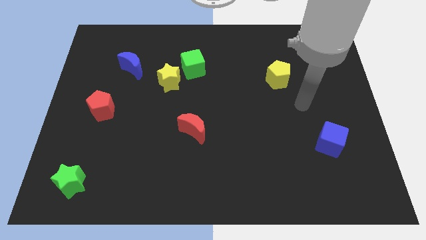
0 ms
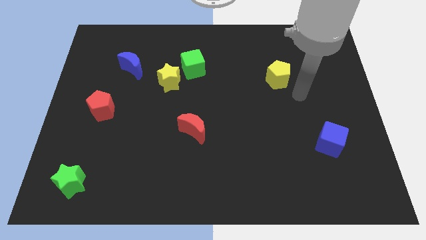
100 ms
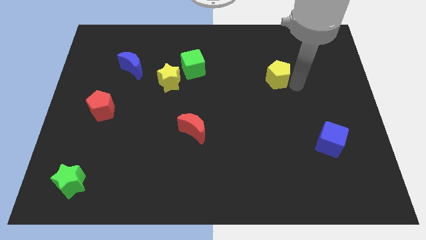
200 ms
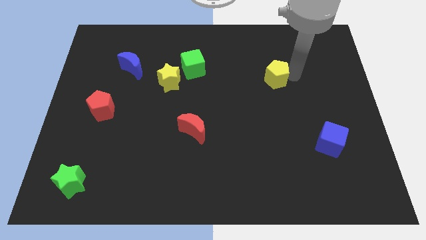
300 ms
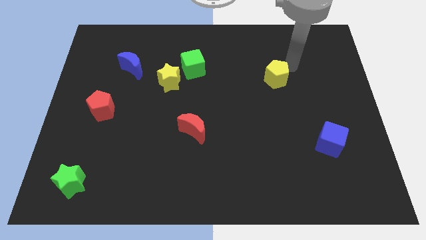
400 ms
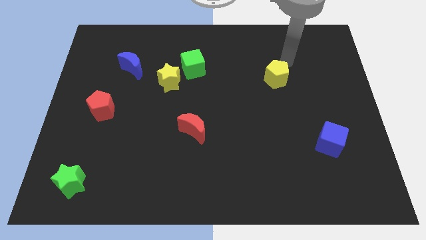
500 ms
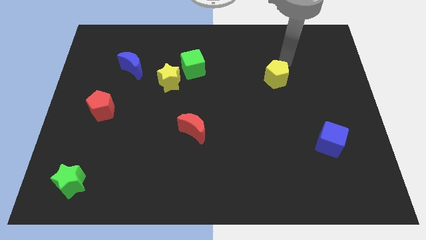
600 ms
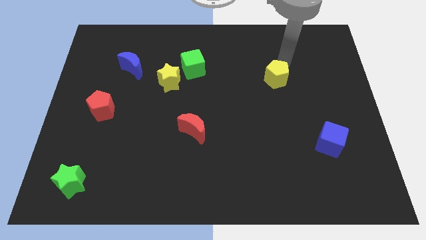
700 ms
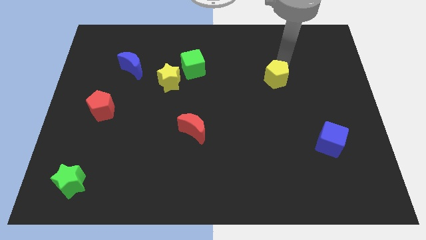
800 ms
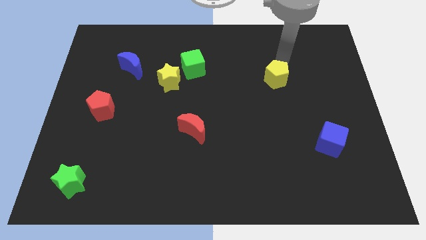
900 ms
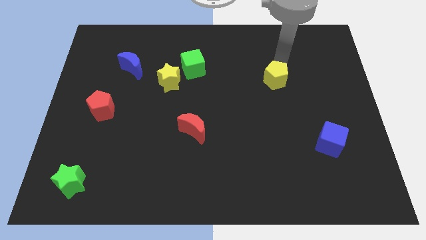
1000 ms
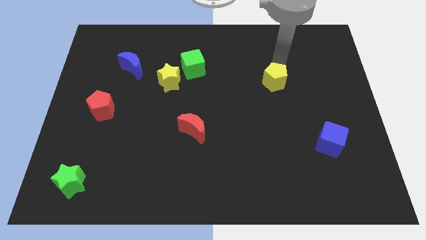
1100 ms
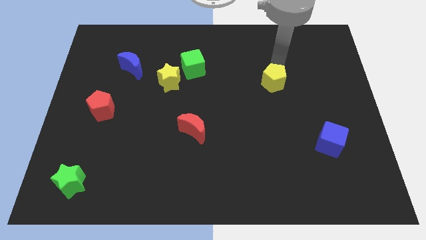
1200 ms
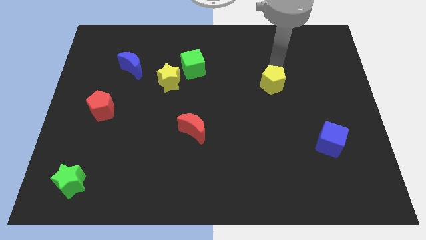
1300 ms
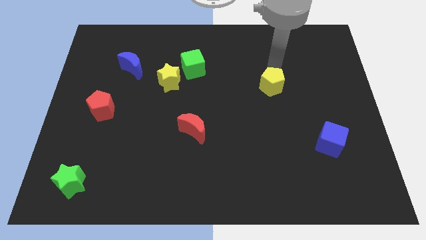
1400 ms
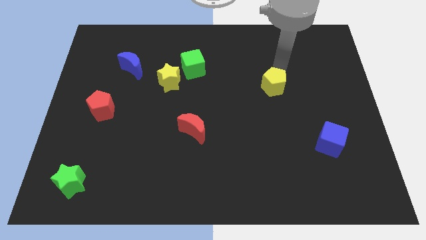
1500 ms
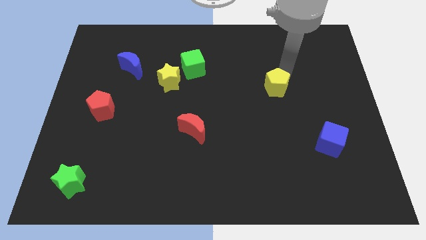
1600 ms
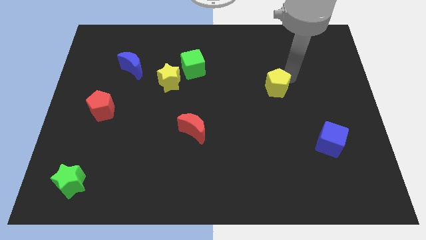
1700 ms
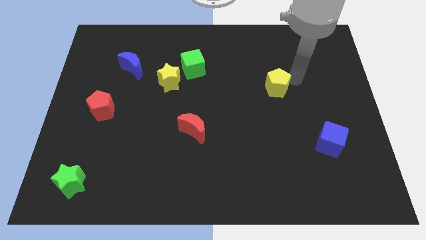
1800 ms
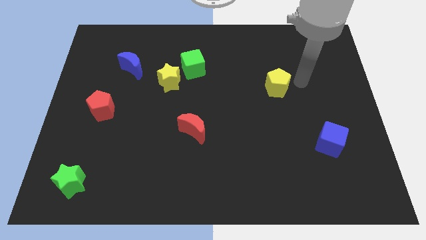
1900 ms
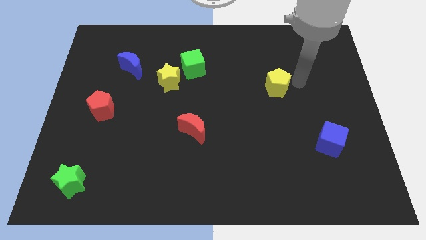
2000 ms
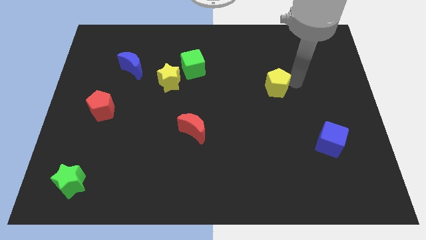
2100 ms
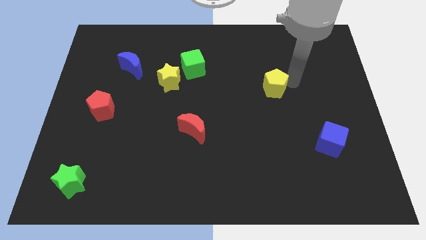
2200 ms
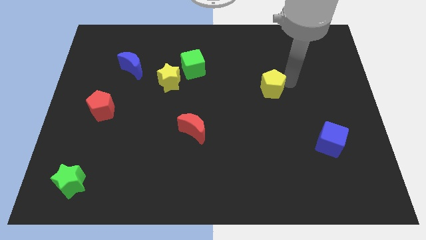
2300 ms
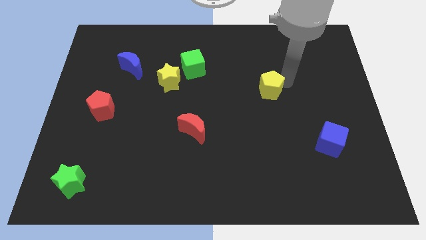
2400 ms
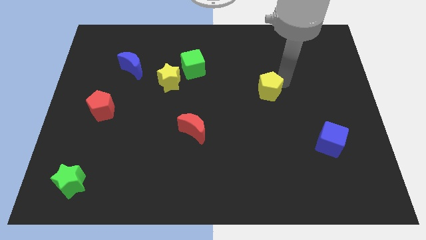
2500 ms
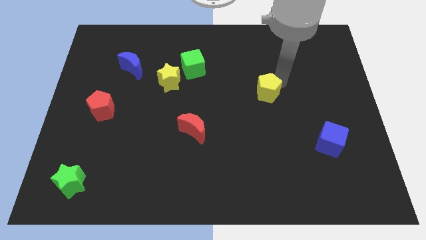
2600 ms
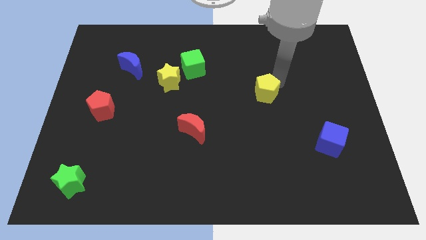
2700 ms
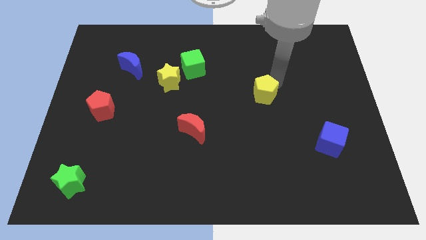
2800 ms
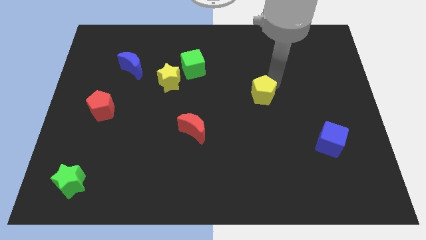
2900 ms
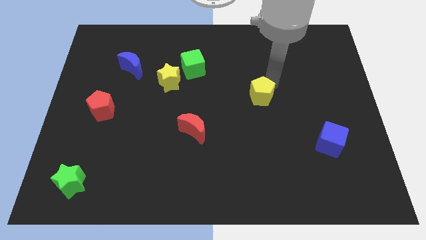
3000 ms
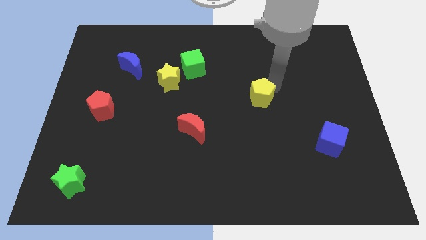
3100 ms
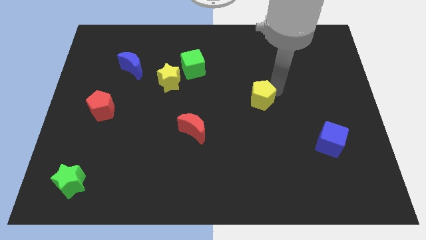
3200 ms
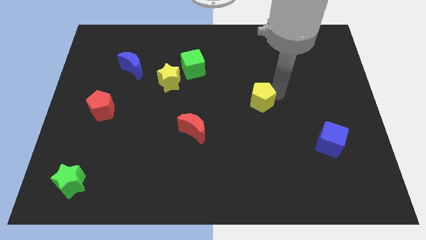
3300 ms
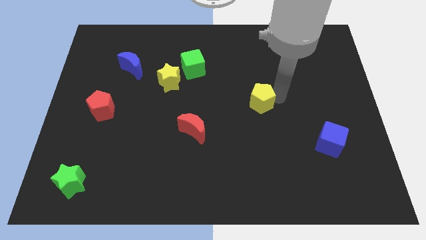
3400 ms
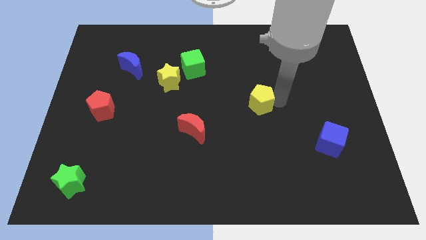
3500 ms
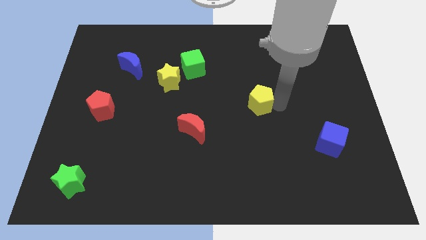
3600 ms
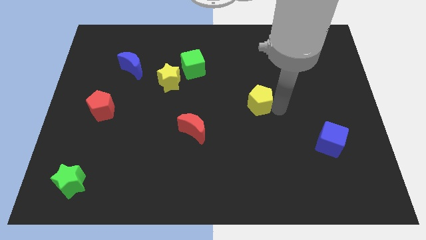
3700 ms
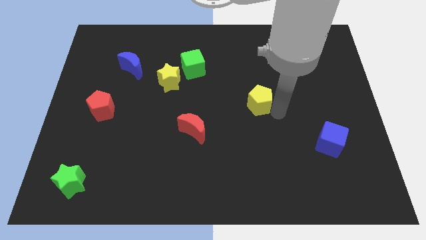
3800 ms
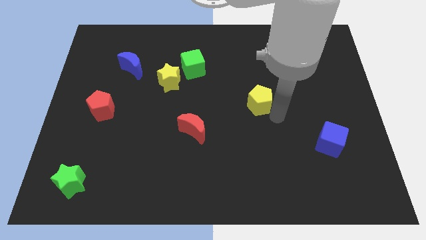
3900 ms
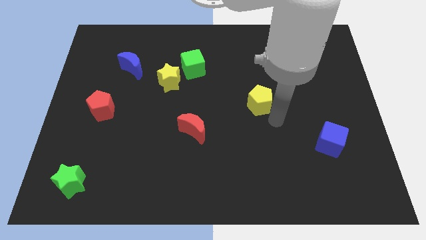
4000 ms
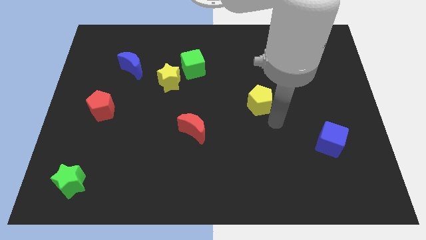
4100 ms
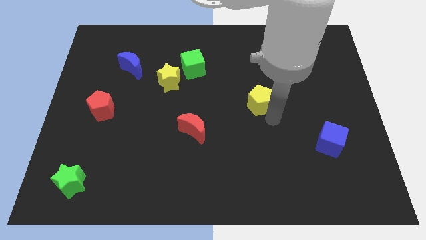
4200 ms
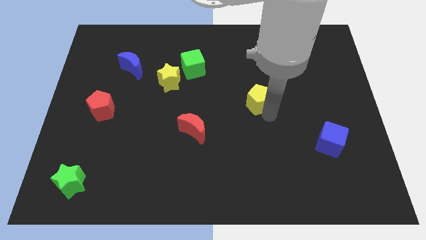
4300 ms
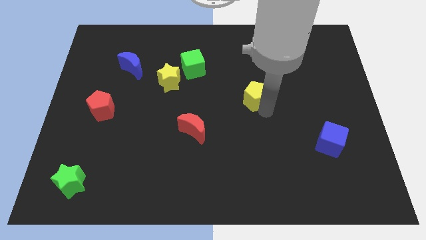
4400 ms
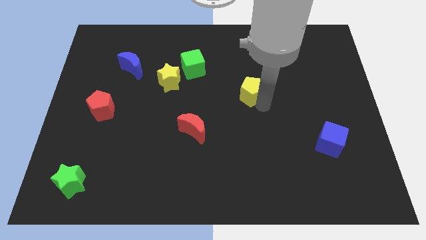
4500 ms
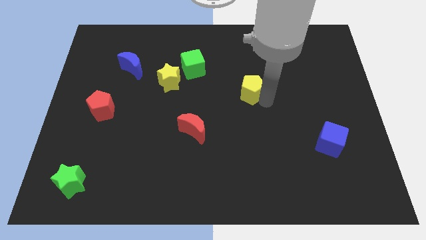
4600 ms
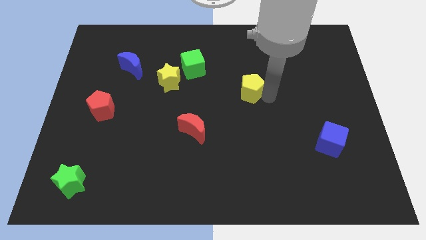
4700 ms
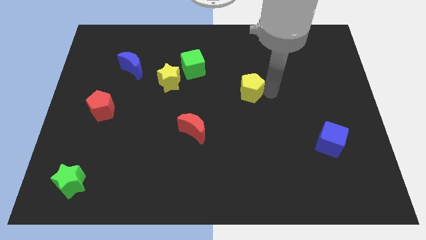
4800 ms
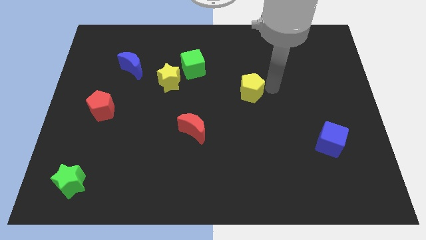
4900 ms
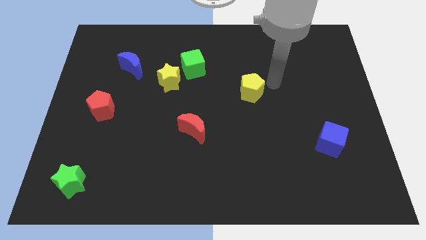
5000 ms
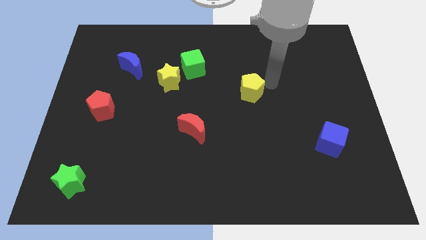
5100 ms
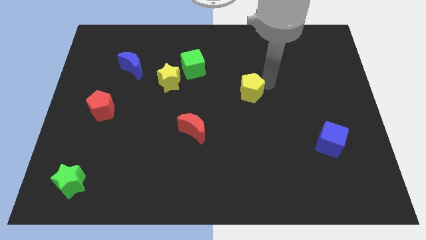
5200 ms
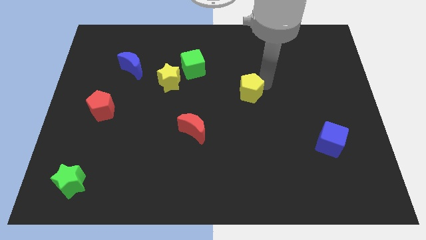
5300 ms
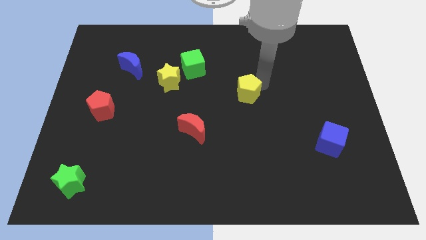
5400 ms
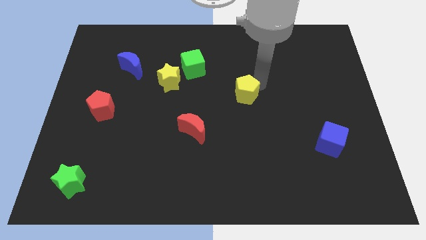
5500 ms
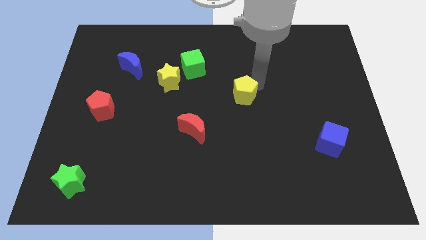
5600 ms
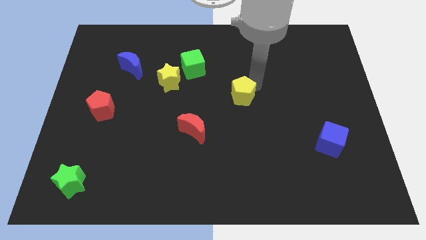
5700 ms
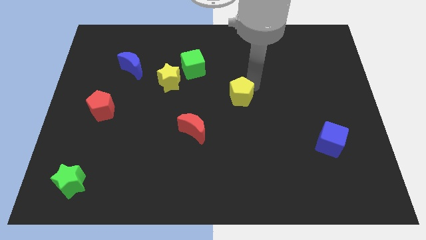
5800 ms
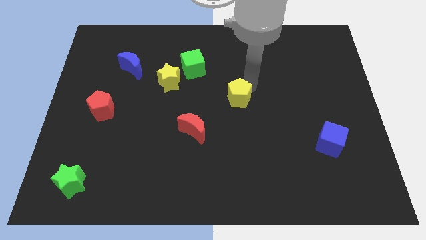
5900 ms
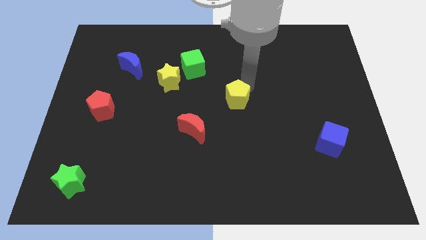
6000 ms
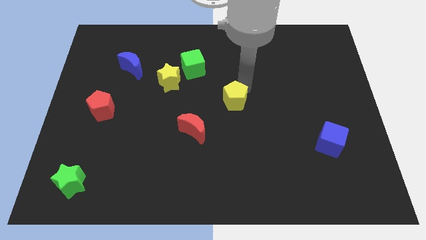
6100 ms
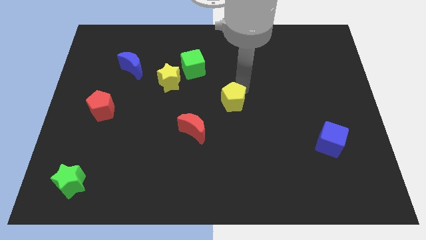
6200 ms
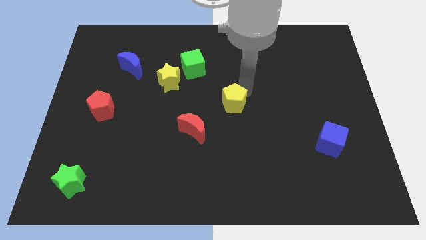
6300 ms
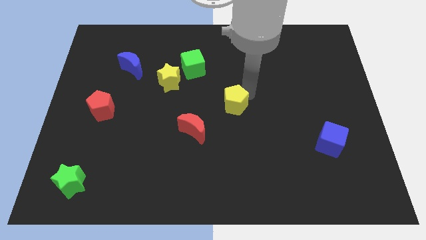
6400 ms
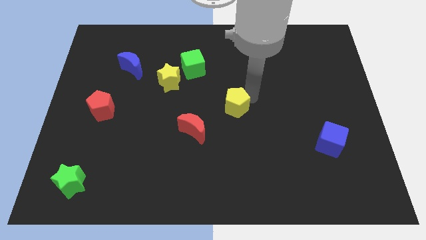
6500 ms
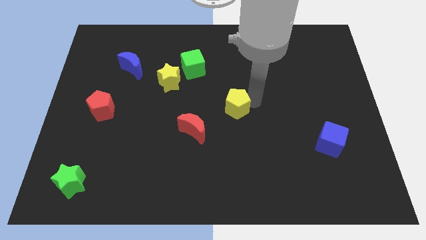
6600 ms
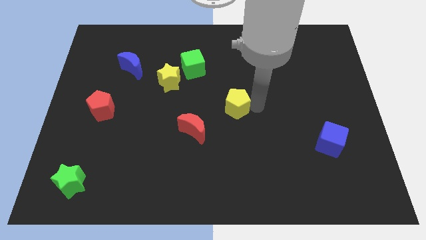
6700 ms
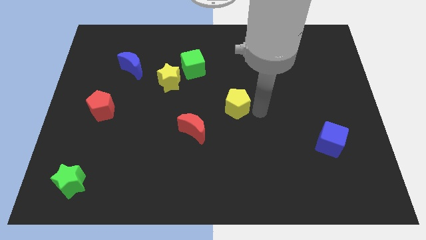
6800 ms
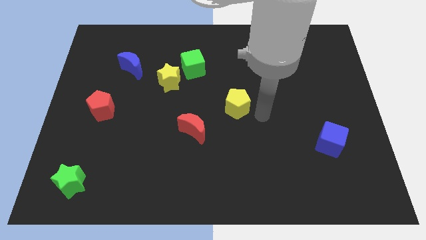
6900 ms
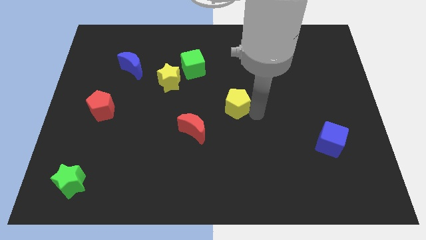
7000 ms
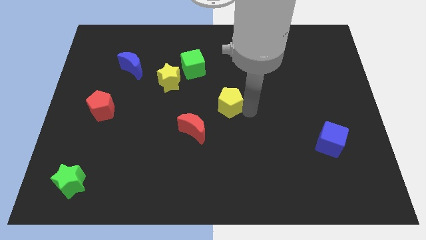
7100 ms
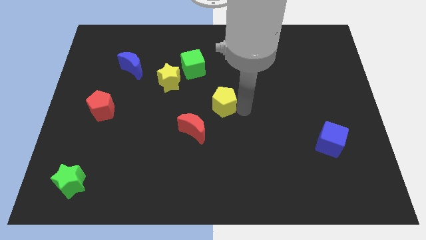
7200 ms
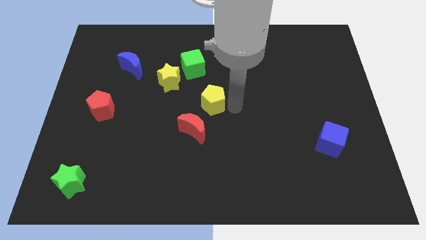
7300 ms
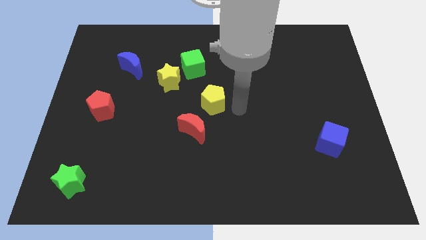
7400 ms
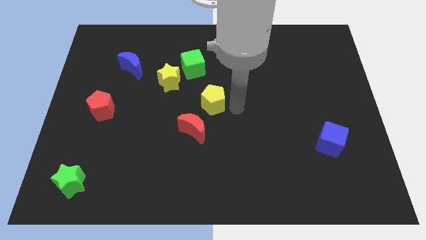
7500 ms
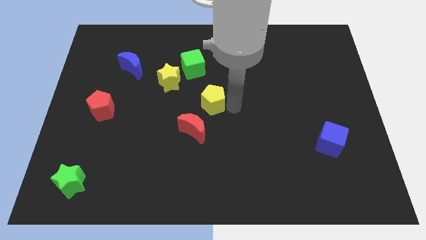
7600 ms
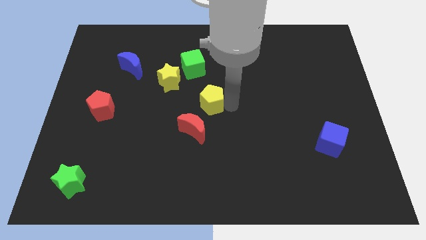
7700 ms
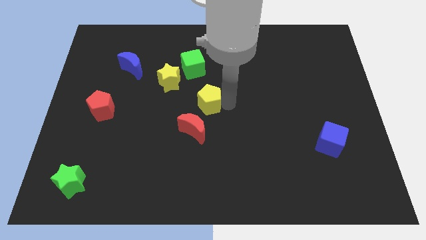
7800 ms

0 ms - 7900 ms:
move the yellow pentagon diagonally down and to the right of the yellow star
